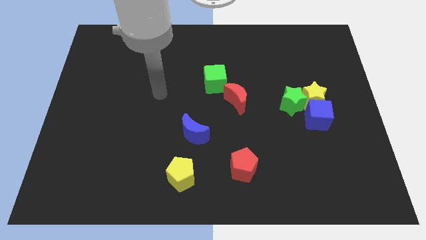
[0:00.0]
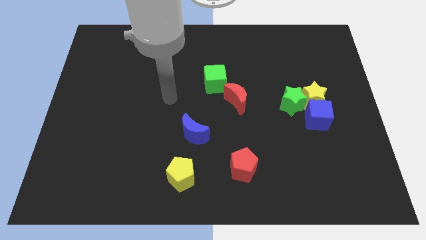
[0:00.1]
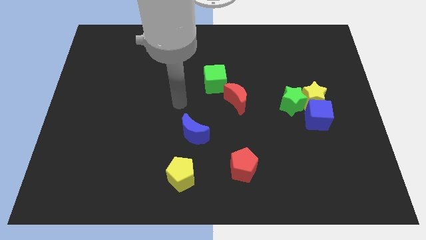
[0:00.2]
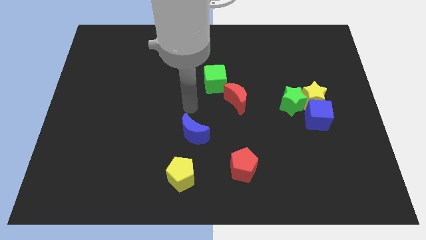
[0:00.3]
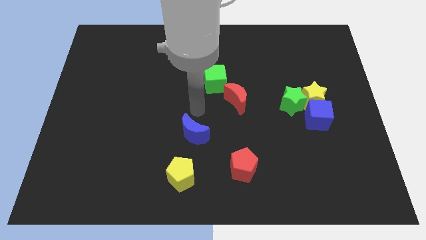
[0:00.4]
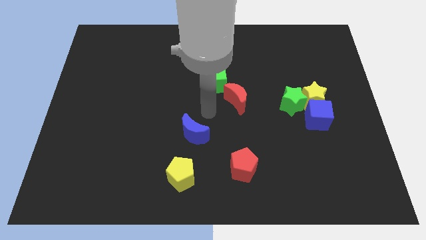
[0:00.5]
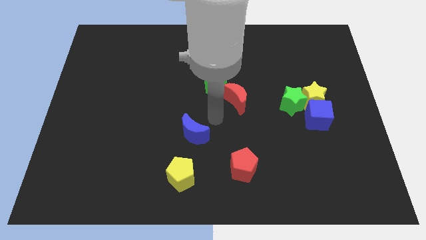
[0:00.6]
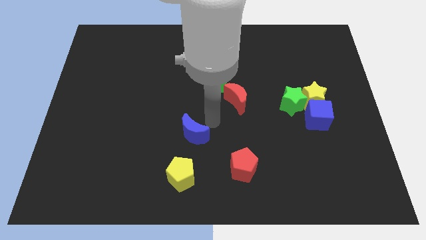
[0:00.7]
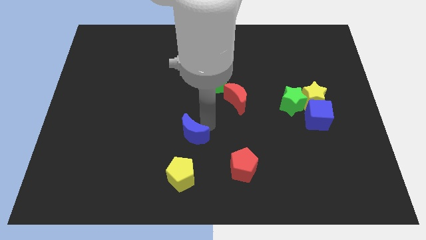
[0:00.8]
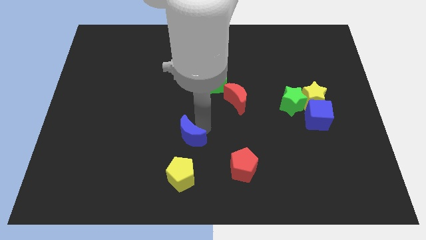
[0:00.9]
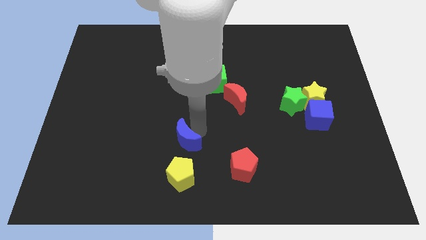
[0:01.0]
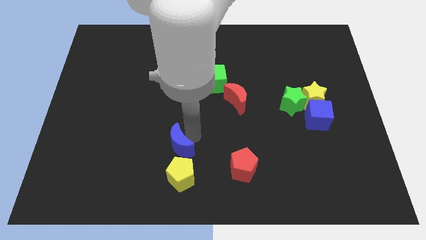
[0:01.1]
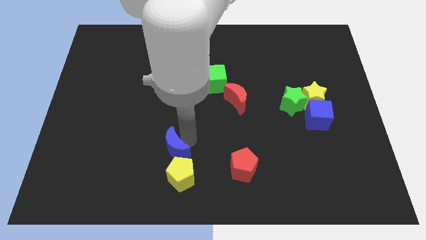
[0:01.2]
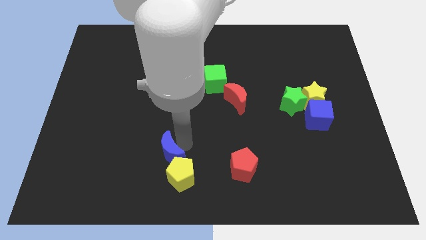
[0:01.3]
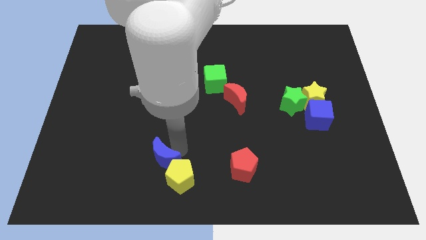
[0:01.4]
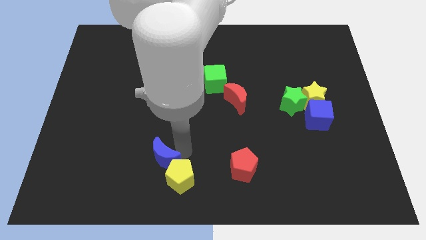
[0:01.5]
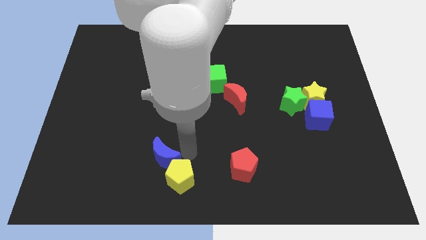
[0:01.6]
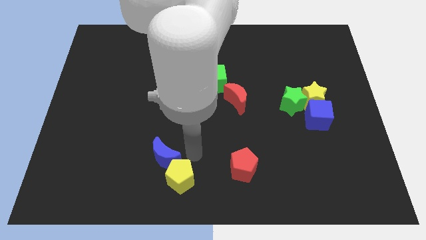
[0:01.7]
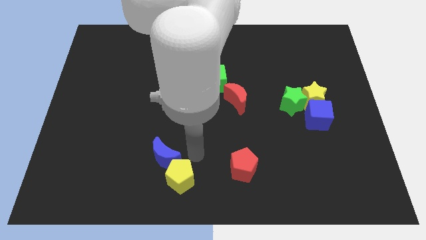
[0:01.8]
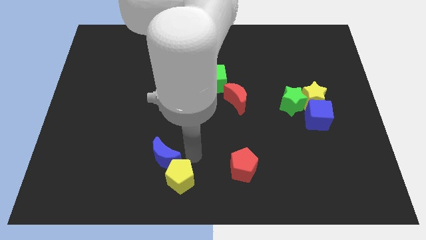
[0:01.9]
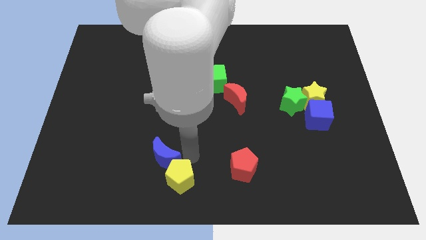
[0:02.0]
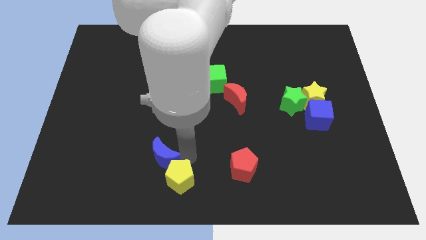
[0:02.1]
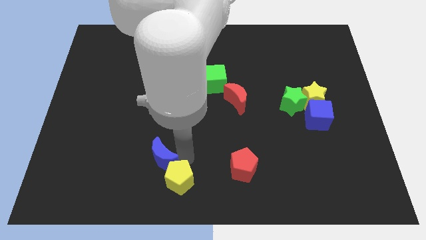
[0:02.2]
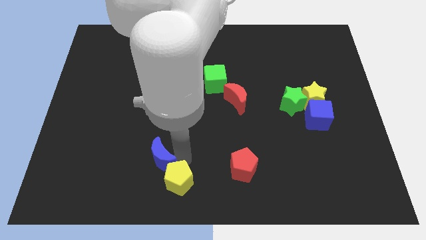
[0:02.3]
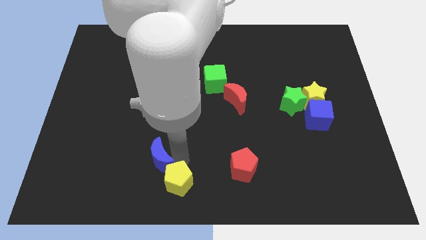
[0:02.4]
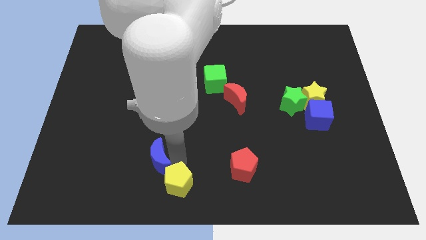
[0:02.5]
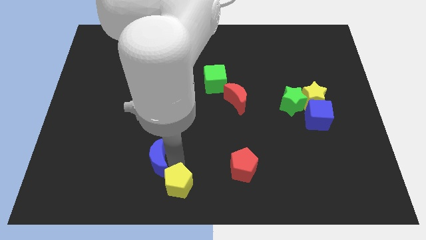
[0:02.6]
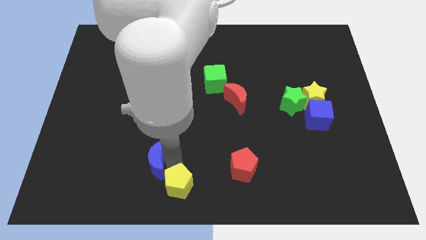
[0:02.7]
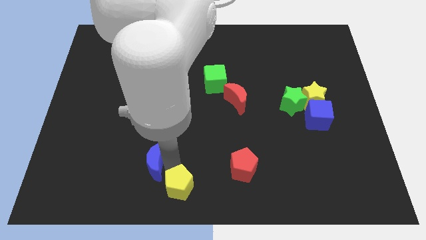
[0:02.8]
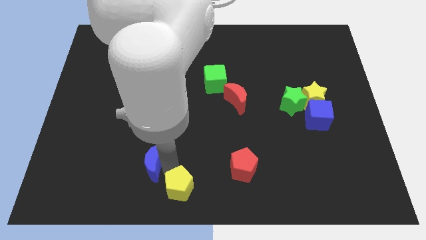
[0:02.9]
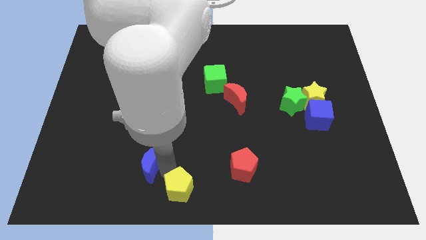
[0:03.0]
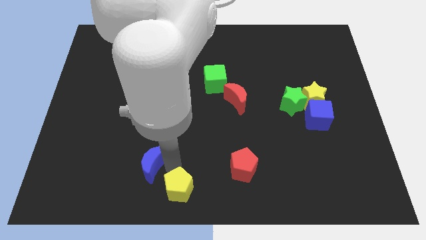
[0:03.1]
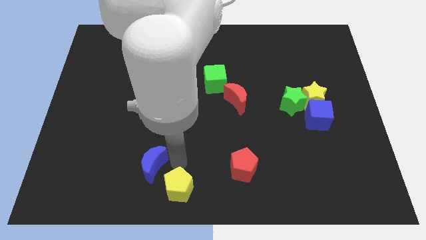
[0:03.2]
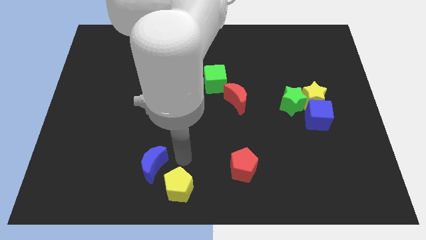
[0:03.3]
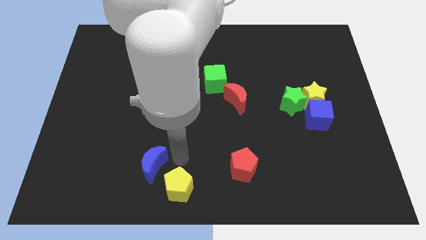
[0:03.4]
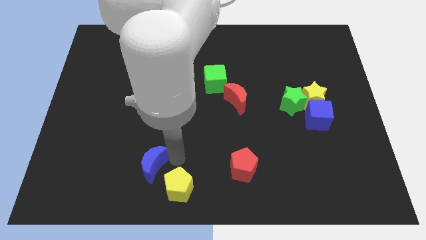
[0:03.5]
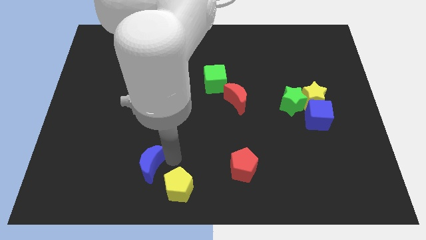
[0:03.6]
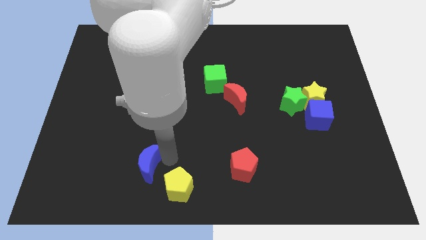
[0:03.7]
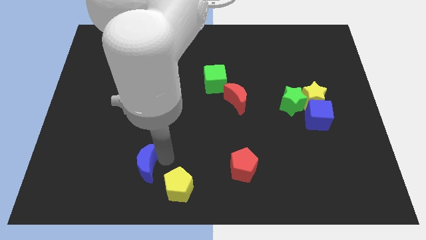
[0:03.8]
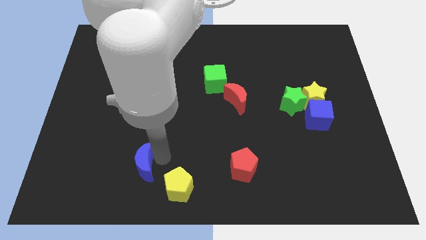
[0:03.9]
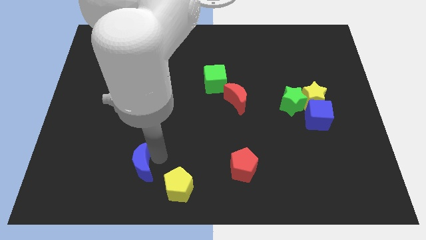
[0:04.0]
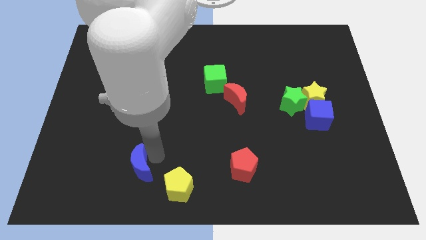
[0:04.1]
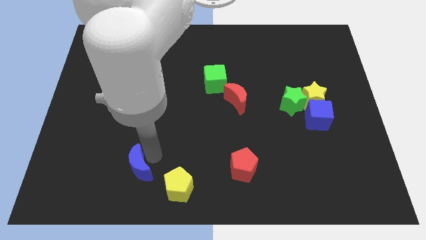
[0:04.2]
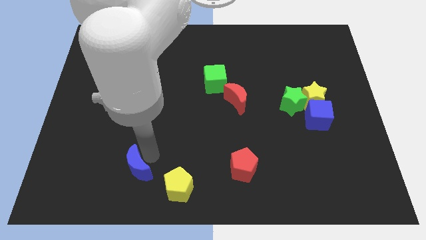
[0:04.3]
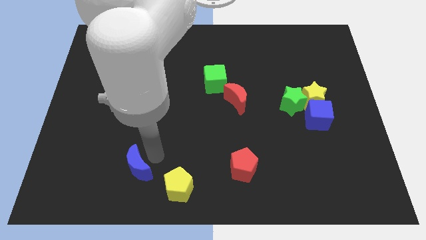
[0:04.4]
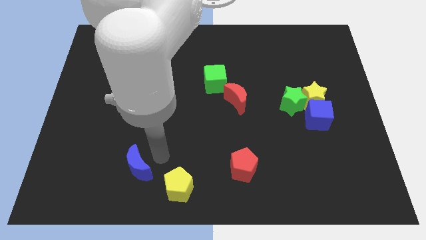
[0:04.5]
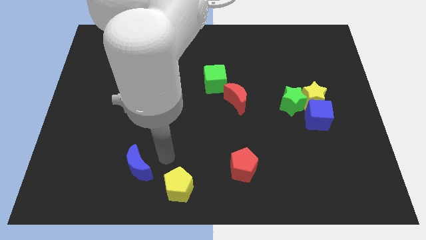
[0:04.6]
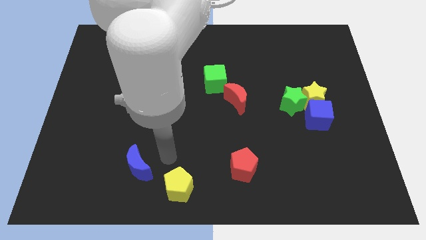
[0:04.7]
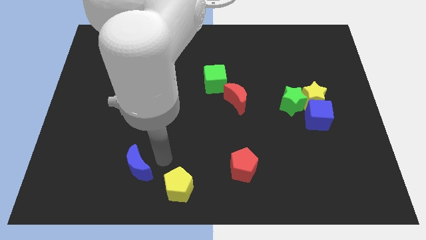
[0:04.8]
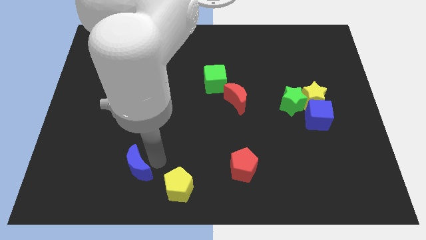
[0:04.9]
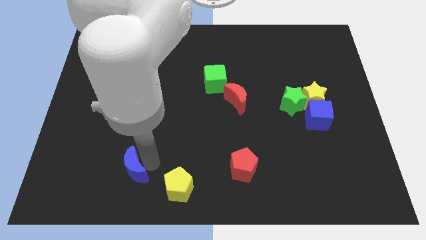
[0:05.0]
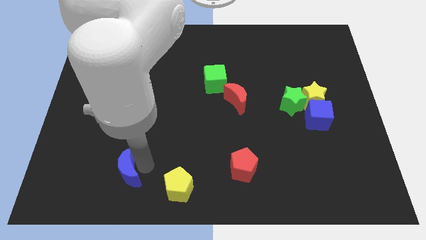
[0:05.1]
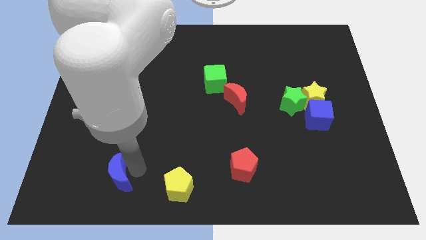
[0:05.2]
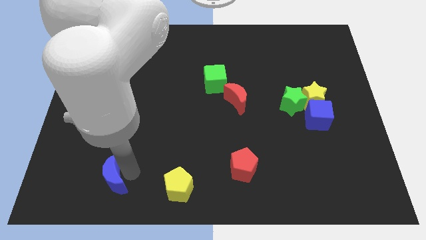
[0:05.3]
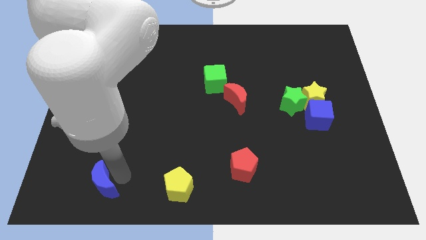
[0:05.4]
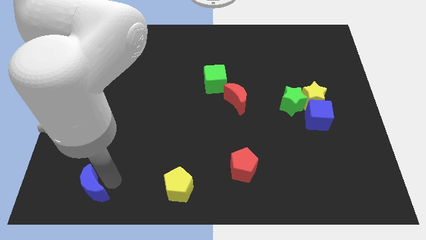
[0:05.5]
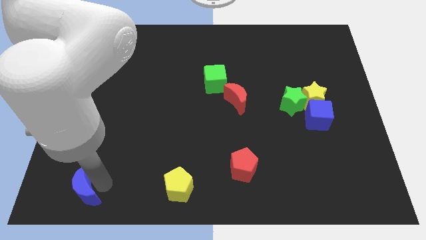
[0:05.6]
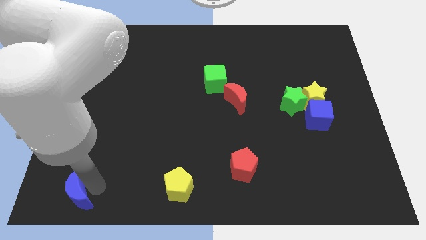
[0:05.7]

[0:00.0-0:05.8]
put the blue moon to the lower left corner

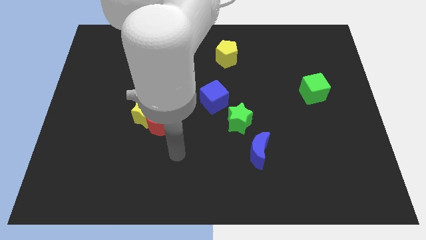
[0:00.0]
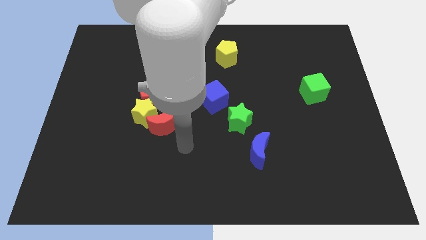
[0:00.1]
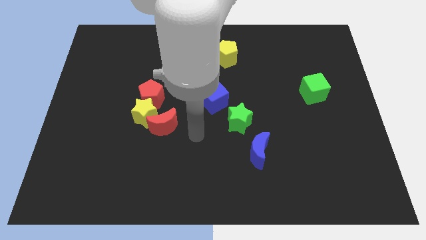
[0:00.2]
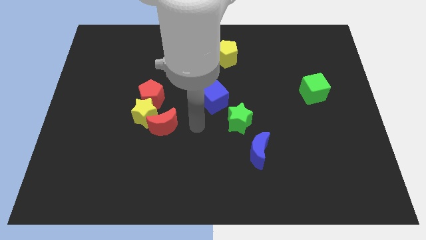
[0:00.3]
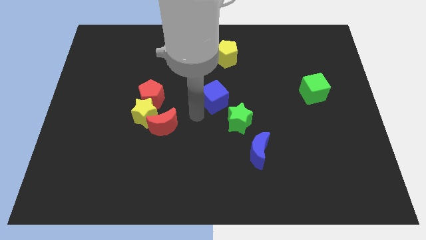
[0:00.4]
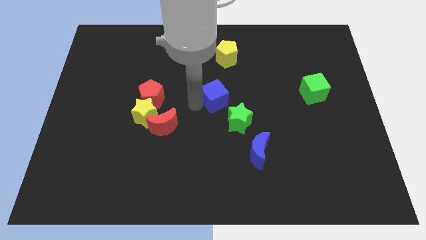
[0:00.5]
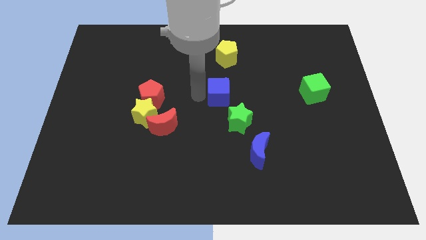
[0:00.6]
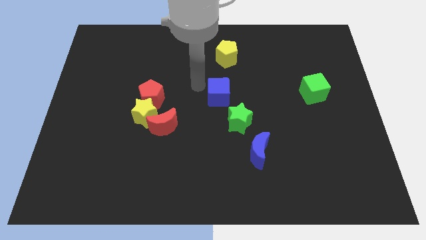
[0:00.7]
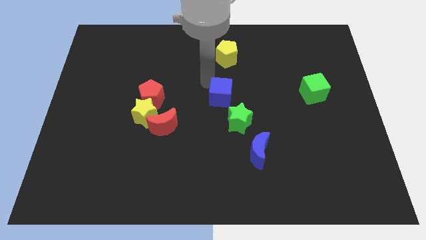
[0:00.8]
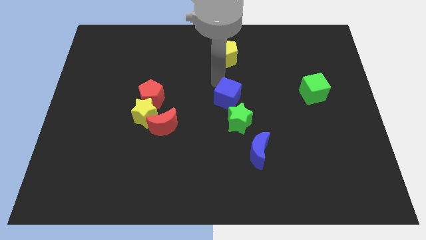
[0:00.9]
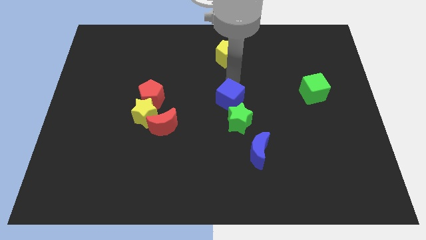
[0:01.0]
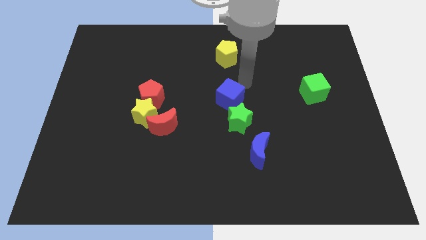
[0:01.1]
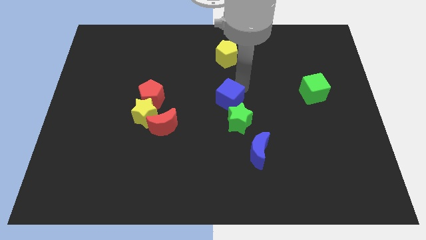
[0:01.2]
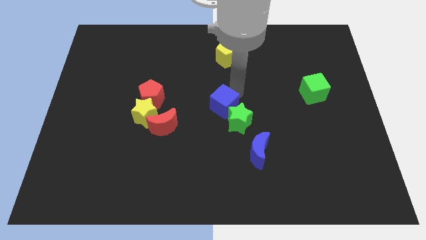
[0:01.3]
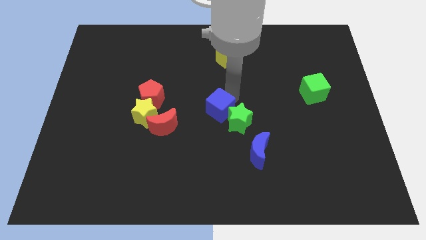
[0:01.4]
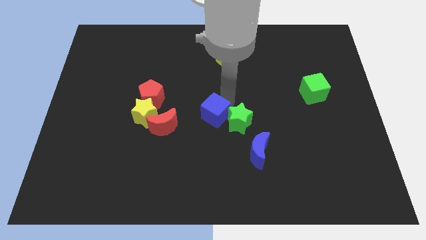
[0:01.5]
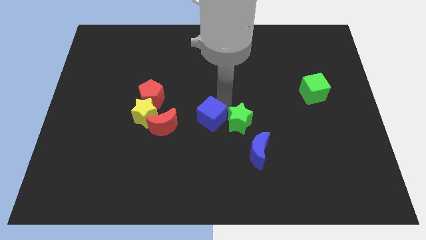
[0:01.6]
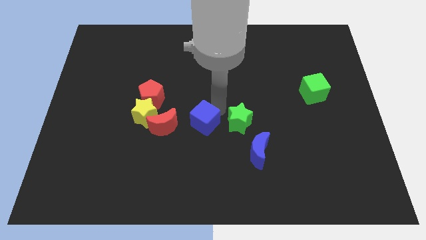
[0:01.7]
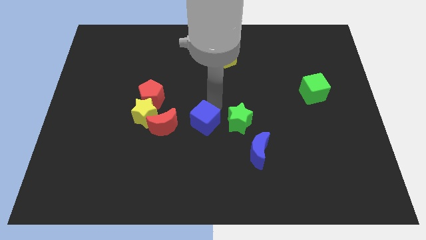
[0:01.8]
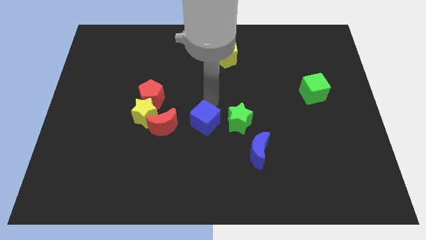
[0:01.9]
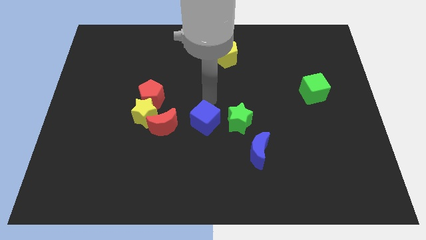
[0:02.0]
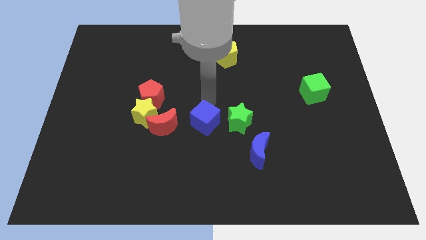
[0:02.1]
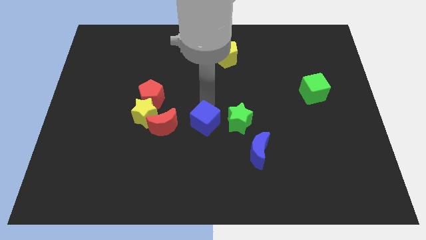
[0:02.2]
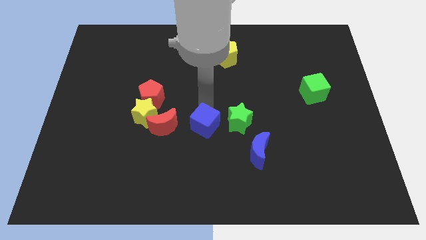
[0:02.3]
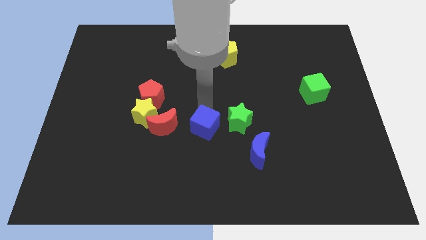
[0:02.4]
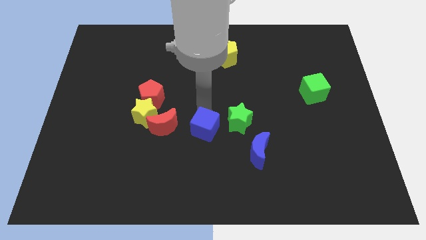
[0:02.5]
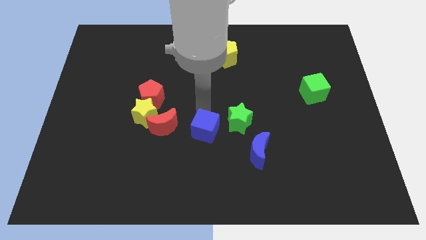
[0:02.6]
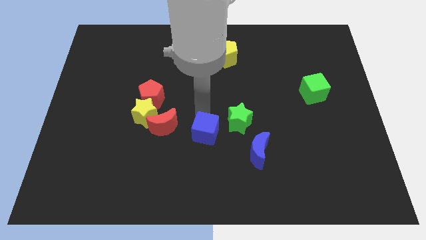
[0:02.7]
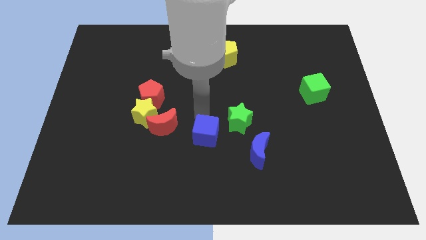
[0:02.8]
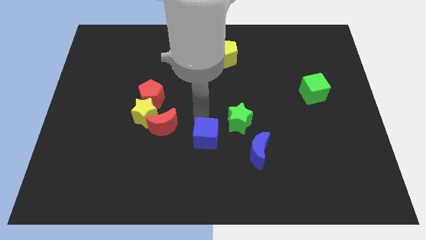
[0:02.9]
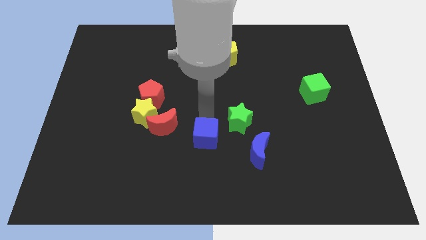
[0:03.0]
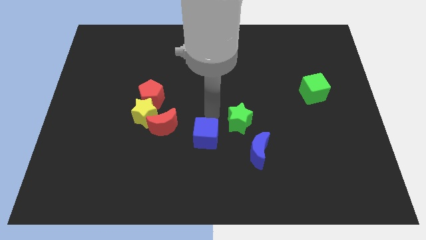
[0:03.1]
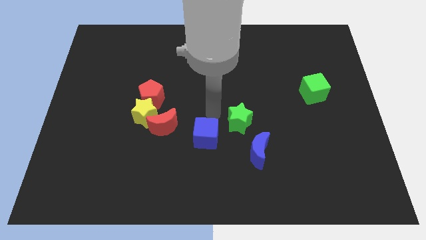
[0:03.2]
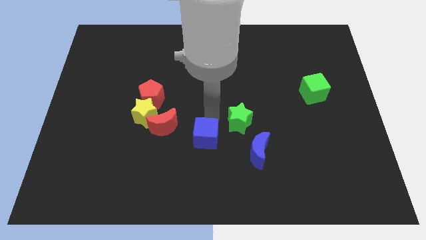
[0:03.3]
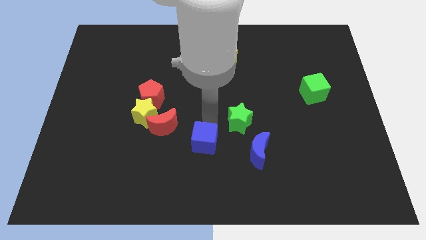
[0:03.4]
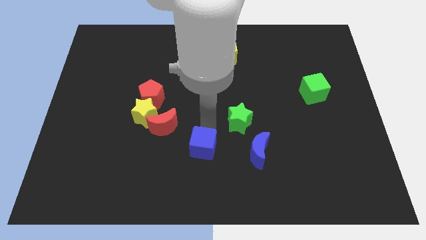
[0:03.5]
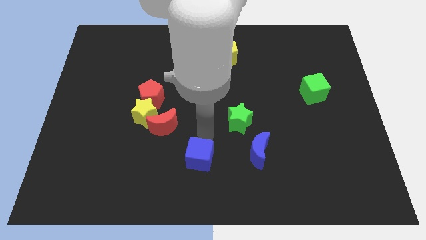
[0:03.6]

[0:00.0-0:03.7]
slide the blue cube to the bottom
